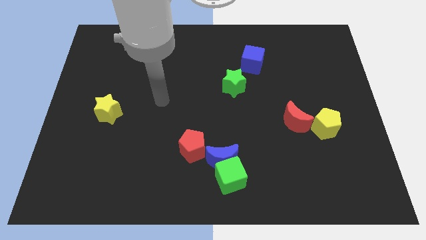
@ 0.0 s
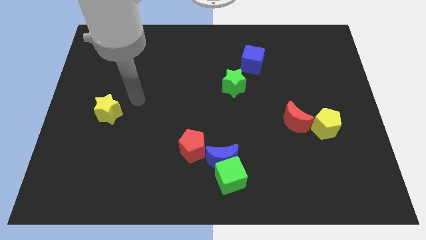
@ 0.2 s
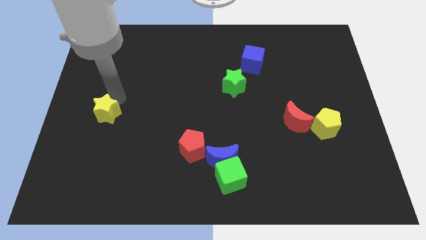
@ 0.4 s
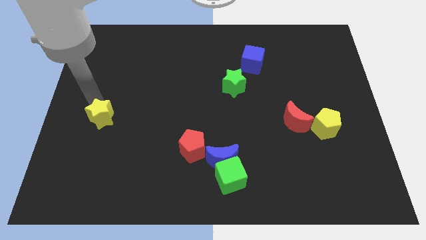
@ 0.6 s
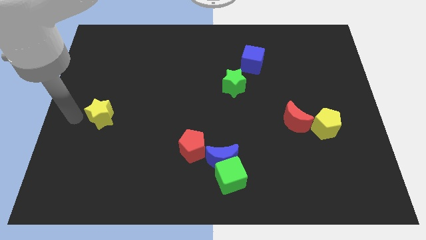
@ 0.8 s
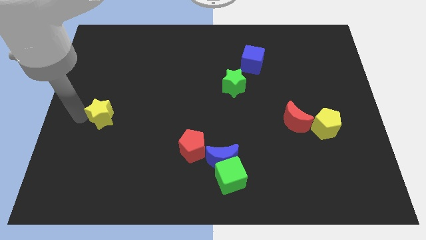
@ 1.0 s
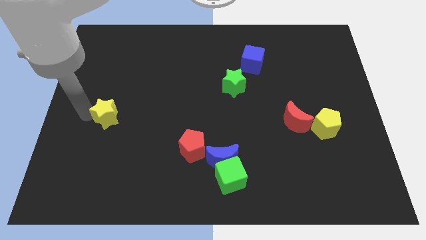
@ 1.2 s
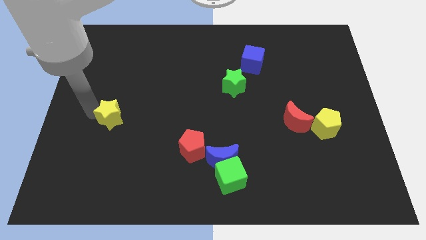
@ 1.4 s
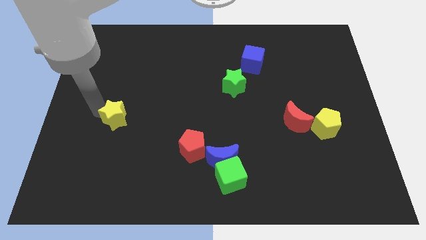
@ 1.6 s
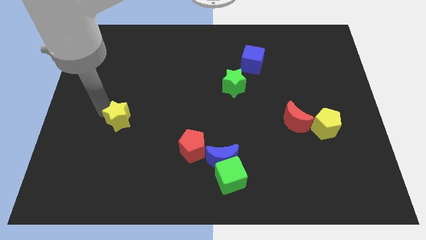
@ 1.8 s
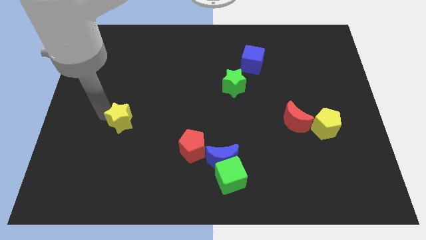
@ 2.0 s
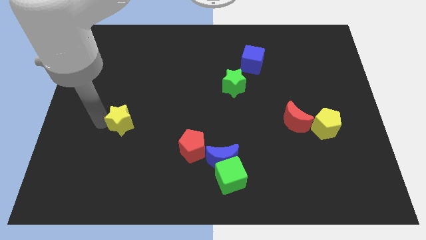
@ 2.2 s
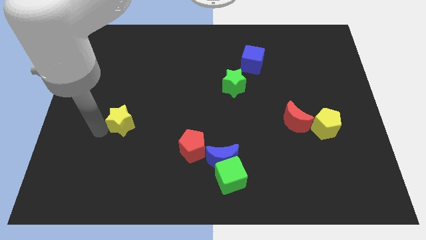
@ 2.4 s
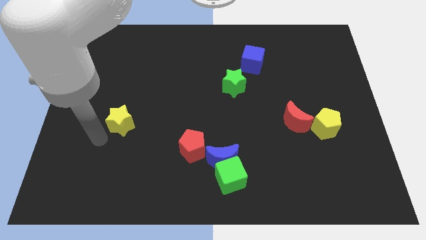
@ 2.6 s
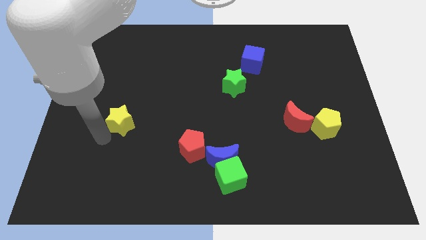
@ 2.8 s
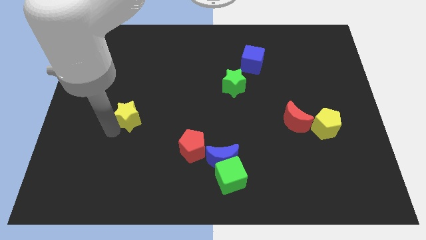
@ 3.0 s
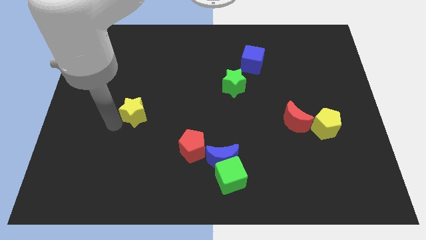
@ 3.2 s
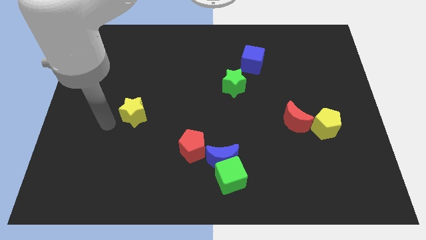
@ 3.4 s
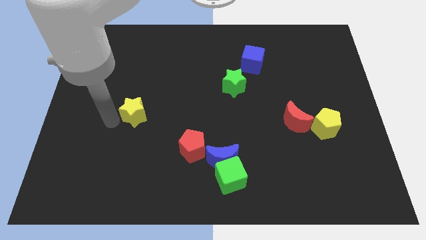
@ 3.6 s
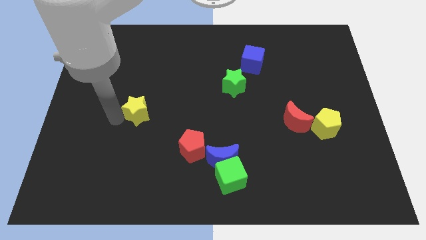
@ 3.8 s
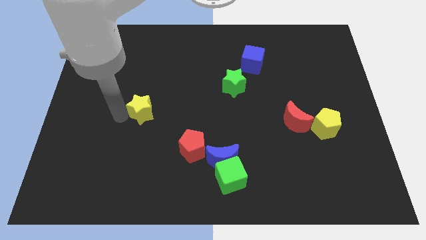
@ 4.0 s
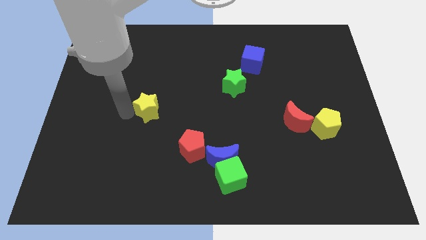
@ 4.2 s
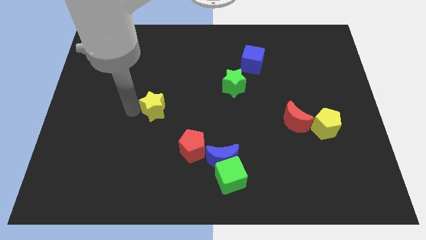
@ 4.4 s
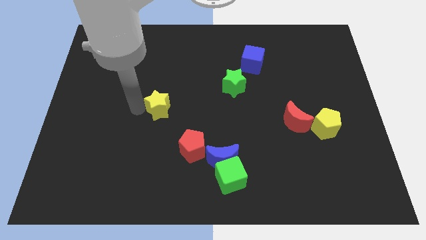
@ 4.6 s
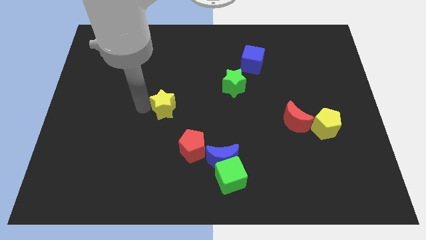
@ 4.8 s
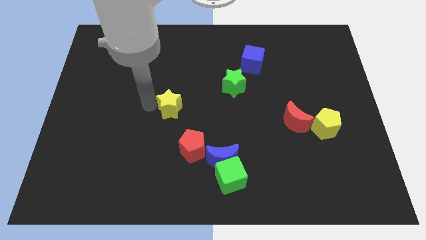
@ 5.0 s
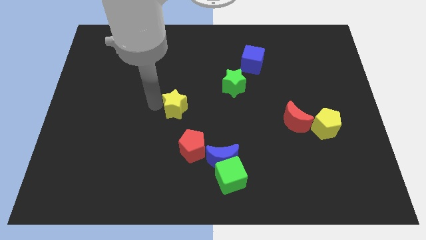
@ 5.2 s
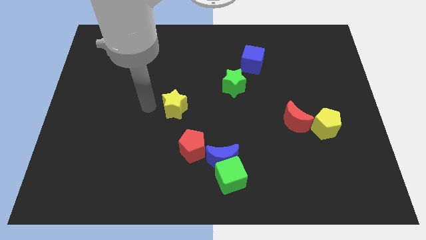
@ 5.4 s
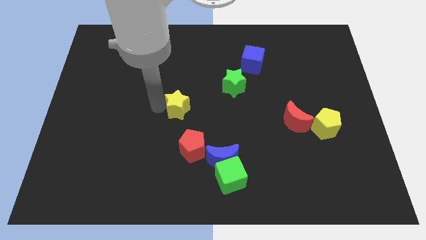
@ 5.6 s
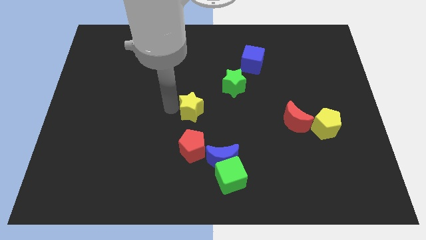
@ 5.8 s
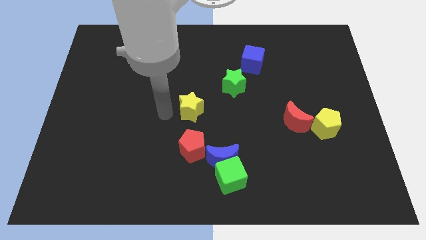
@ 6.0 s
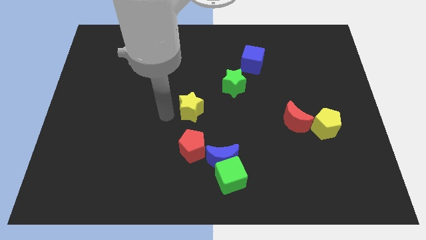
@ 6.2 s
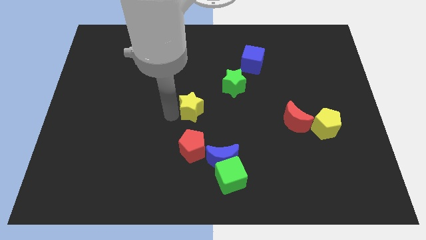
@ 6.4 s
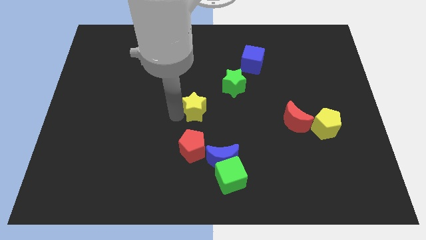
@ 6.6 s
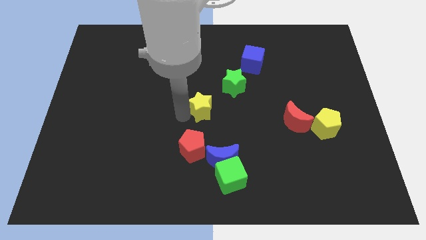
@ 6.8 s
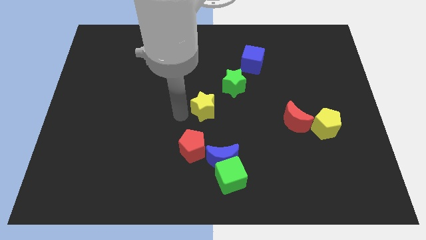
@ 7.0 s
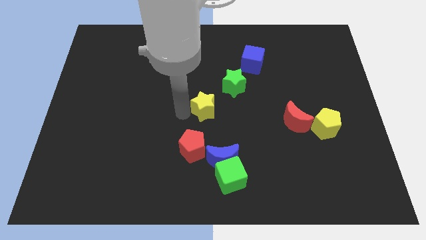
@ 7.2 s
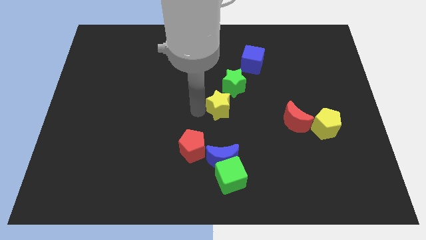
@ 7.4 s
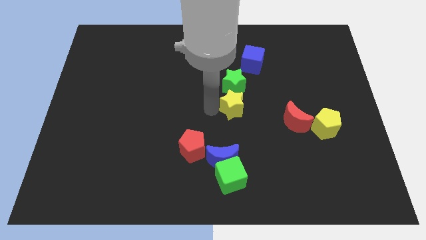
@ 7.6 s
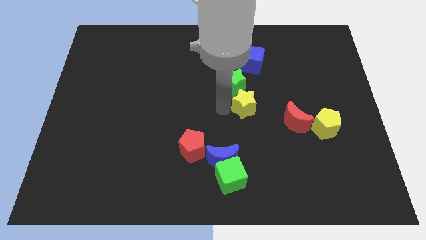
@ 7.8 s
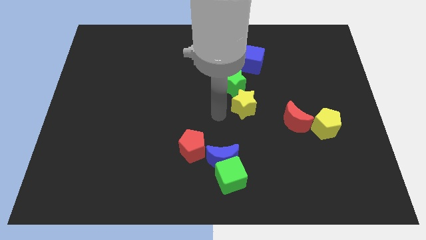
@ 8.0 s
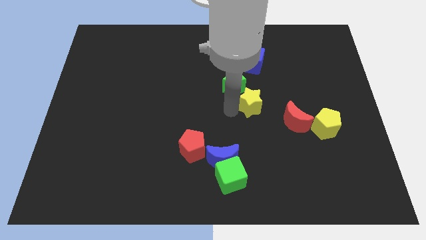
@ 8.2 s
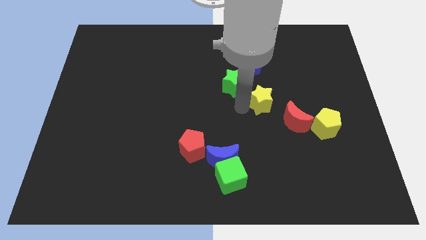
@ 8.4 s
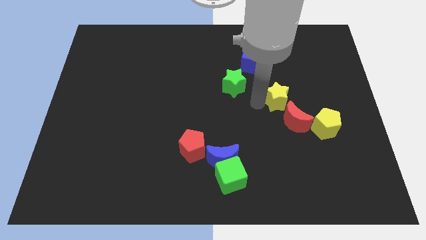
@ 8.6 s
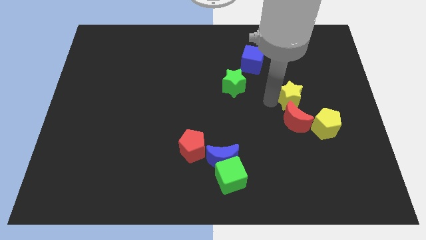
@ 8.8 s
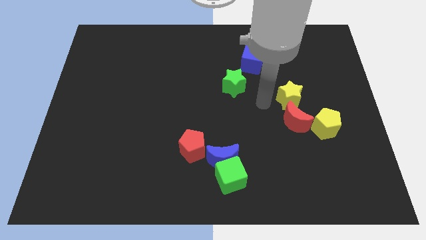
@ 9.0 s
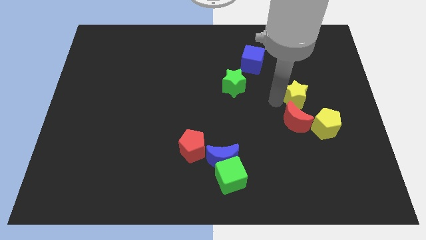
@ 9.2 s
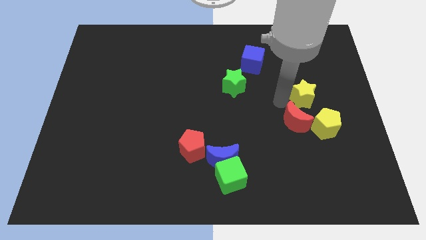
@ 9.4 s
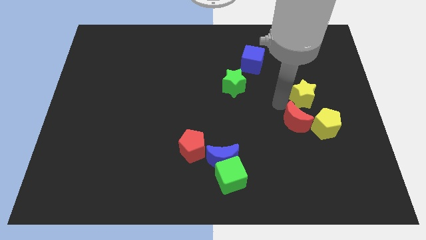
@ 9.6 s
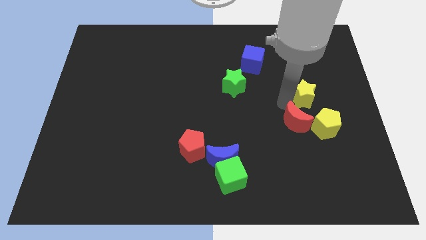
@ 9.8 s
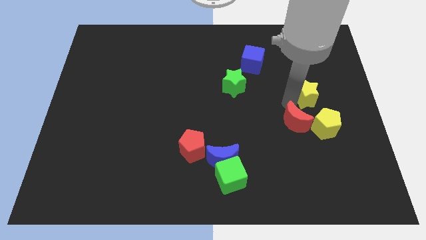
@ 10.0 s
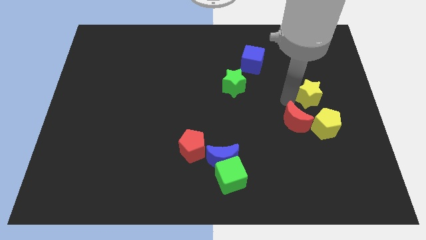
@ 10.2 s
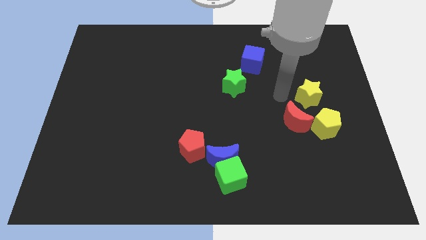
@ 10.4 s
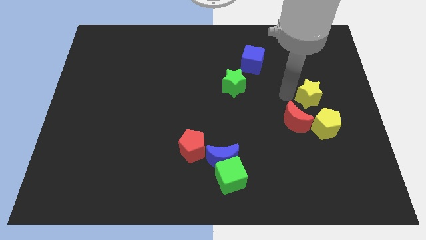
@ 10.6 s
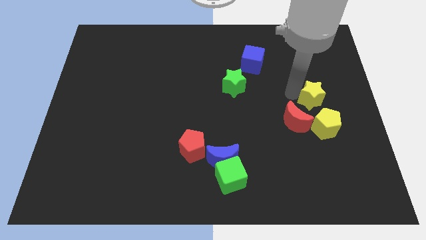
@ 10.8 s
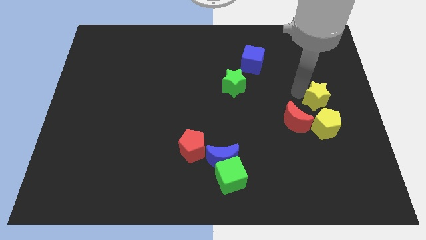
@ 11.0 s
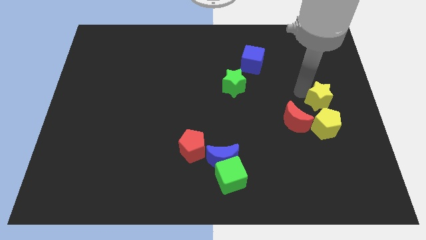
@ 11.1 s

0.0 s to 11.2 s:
push the yellow star to the center right

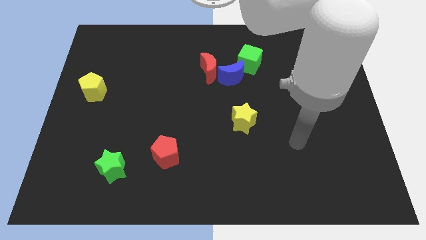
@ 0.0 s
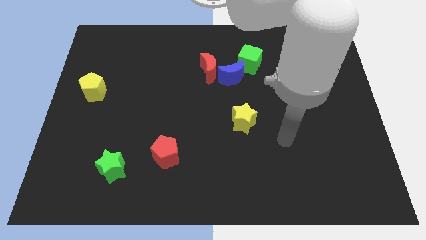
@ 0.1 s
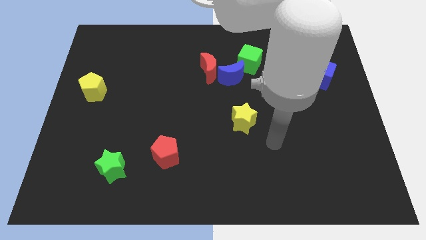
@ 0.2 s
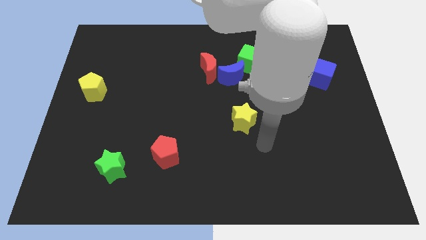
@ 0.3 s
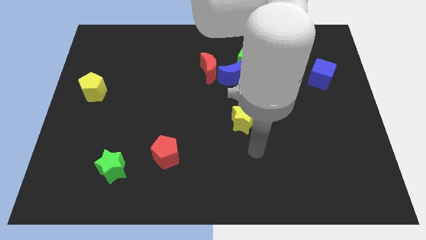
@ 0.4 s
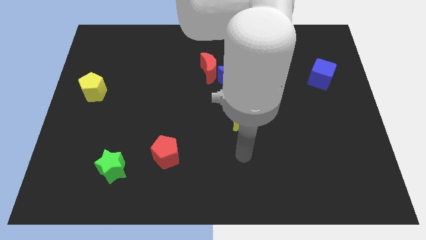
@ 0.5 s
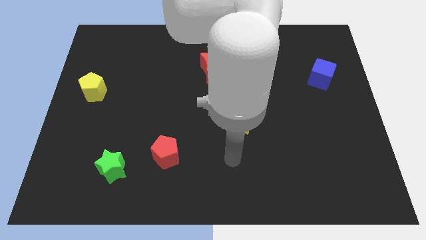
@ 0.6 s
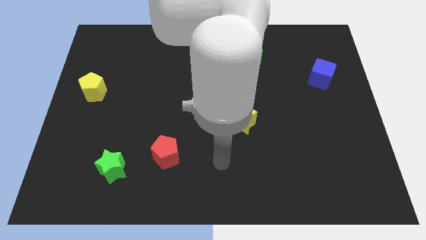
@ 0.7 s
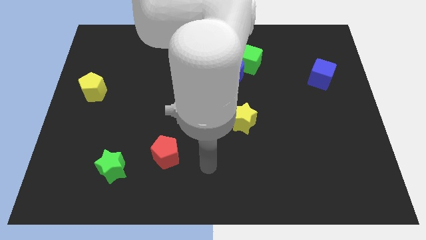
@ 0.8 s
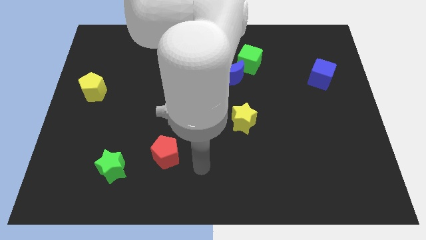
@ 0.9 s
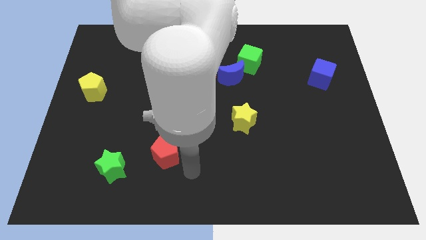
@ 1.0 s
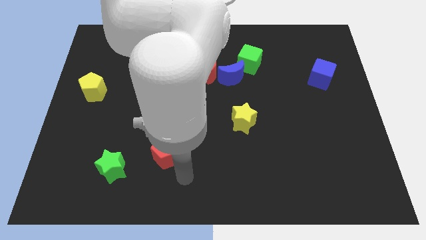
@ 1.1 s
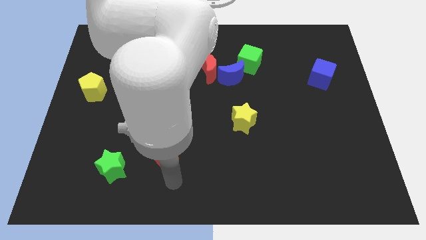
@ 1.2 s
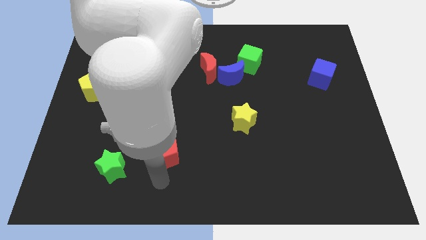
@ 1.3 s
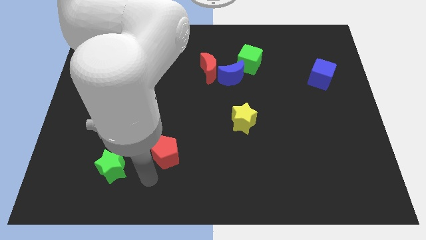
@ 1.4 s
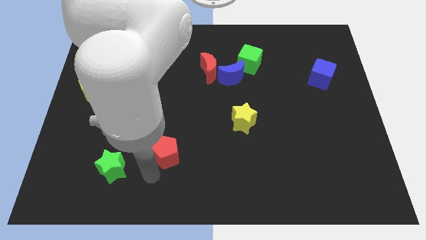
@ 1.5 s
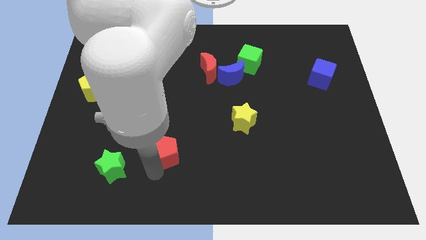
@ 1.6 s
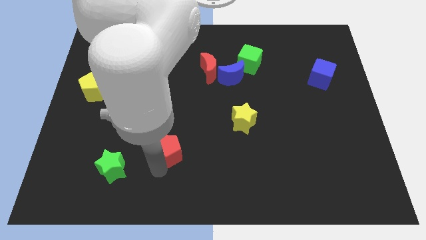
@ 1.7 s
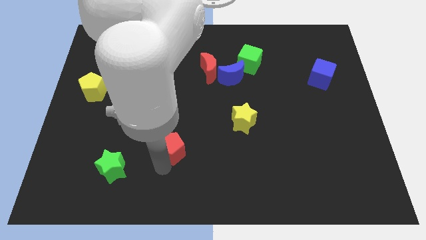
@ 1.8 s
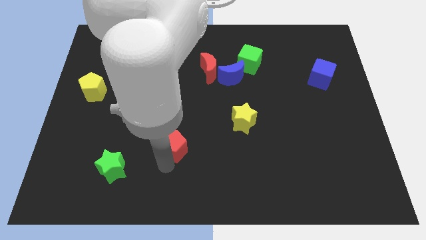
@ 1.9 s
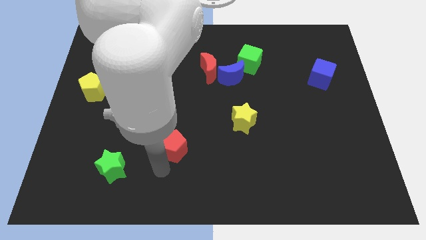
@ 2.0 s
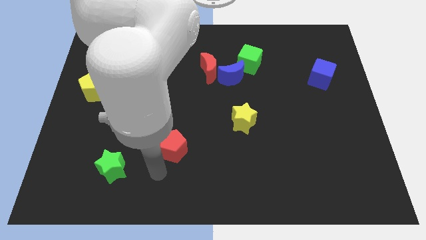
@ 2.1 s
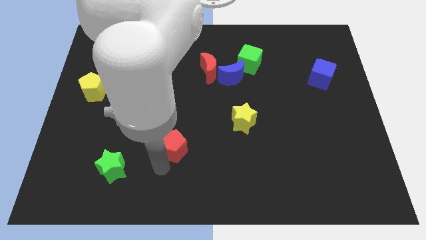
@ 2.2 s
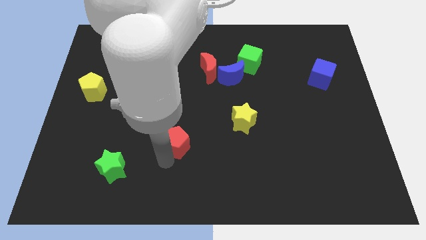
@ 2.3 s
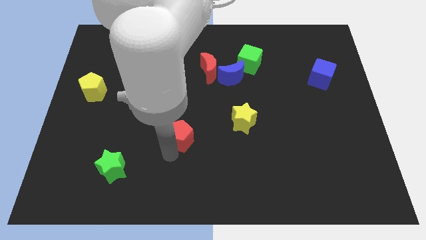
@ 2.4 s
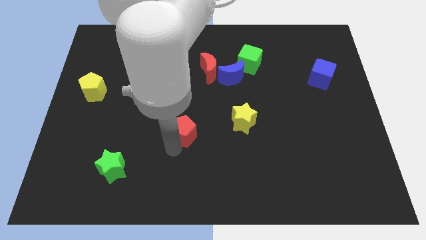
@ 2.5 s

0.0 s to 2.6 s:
move the red pentagon to the center of the board
